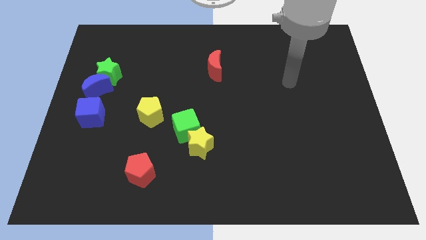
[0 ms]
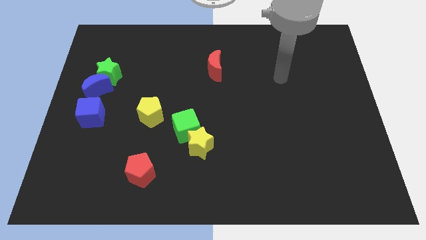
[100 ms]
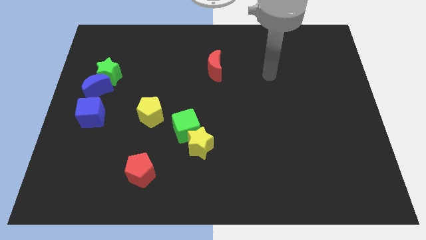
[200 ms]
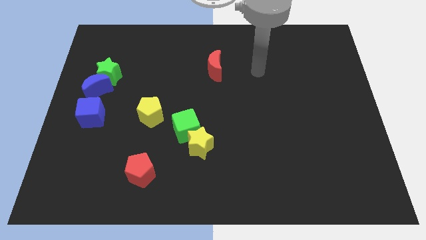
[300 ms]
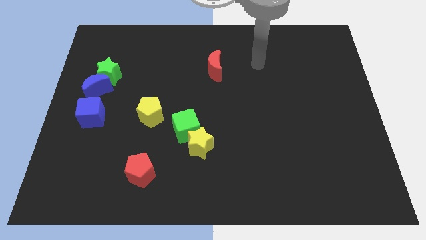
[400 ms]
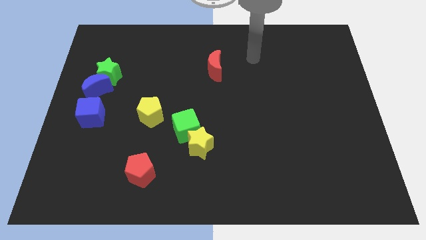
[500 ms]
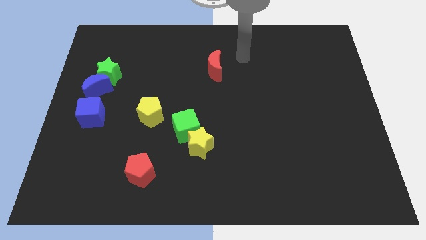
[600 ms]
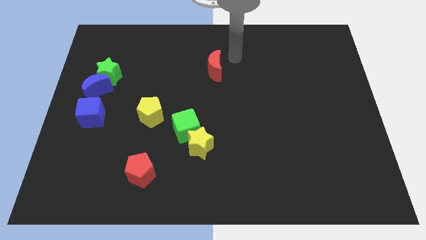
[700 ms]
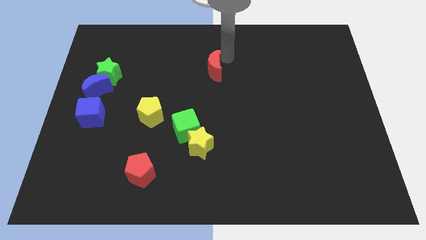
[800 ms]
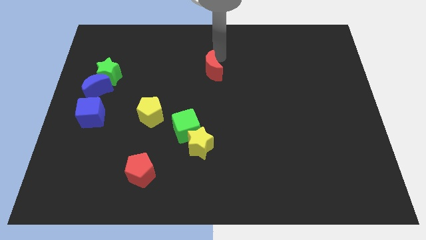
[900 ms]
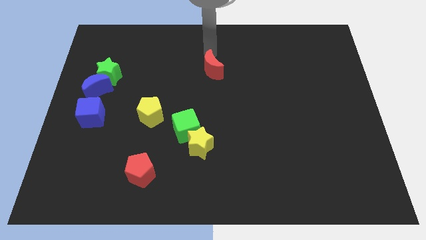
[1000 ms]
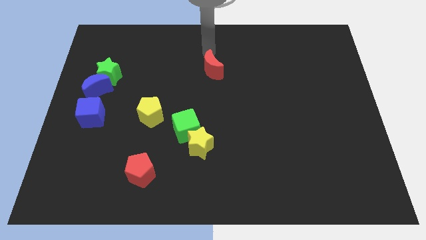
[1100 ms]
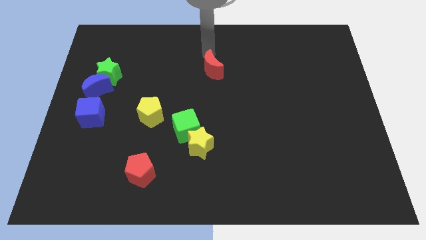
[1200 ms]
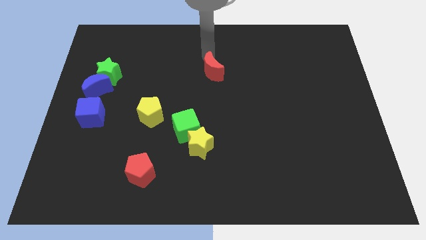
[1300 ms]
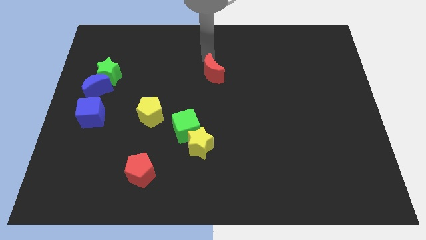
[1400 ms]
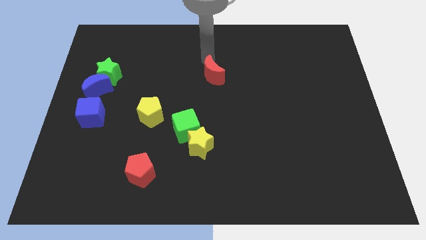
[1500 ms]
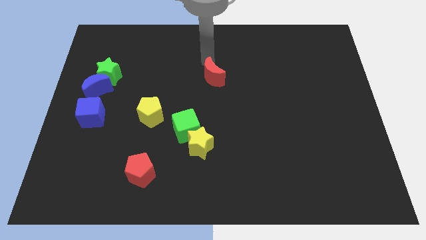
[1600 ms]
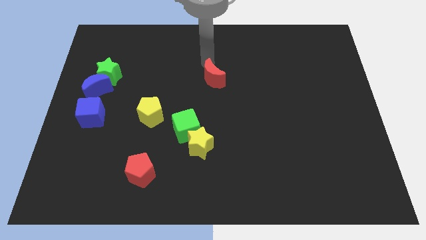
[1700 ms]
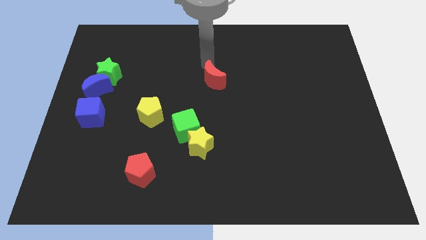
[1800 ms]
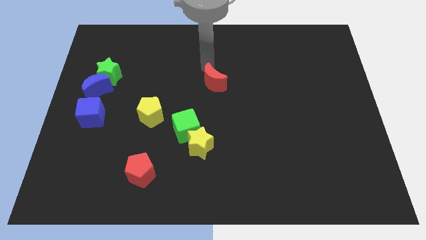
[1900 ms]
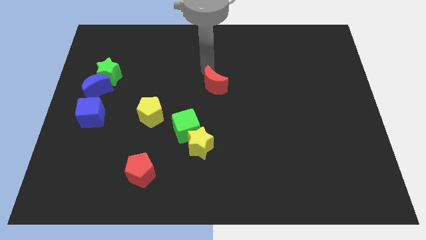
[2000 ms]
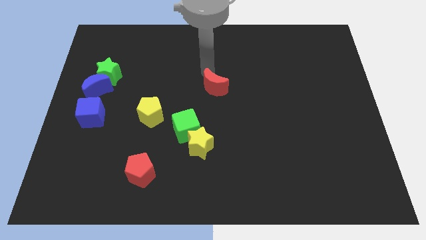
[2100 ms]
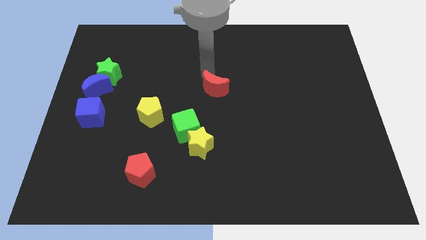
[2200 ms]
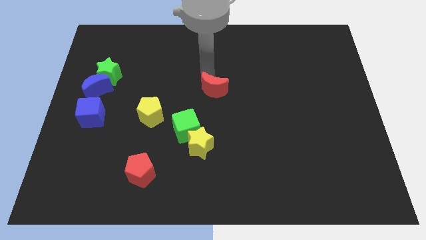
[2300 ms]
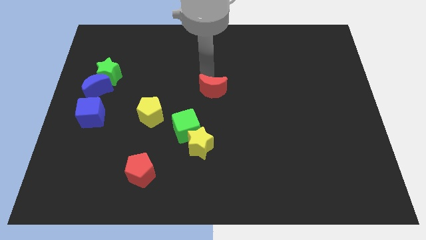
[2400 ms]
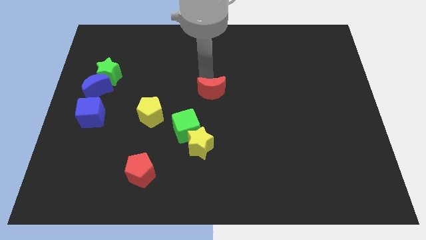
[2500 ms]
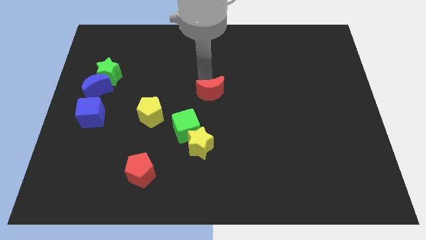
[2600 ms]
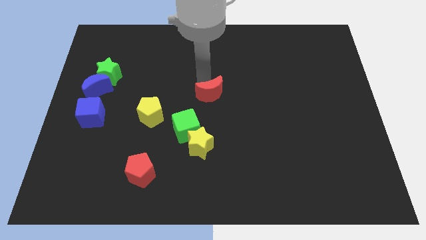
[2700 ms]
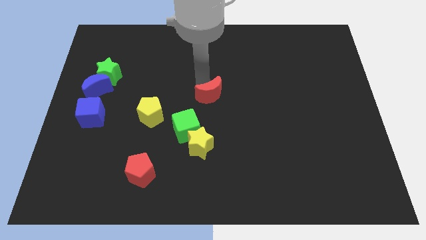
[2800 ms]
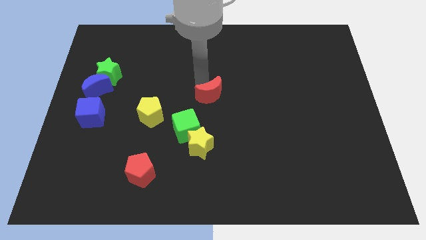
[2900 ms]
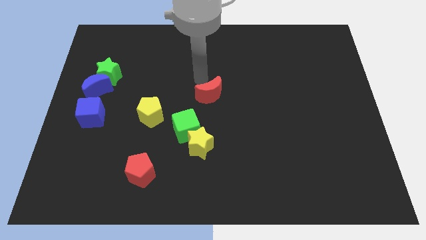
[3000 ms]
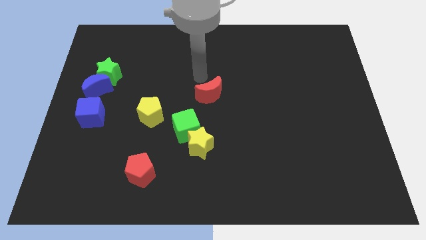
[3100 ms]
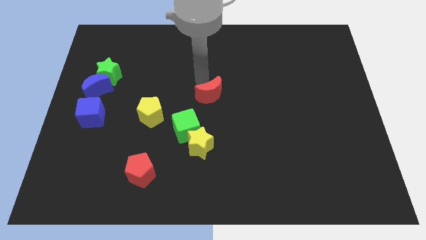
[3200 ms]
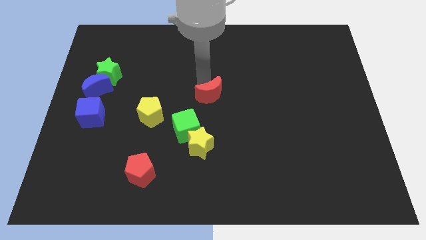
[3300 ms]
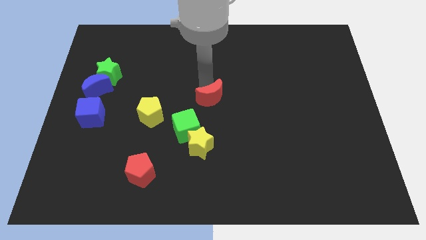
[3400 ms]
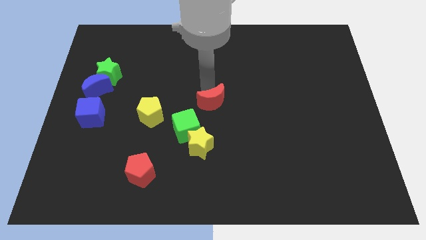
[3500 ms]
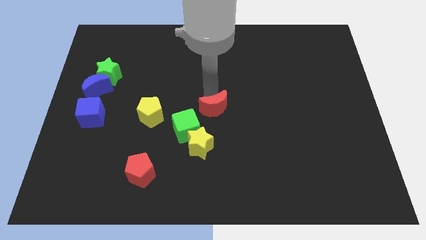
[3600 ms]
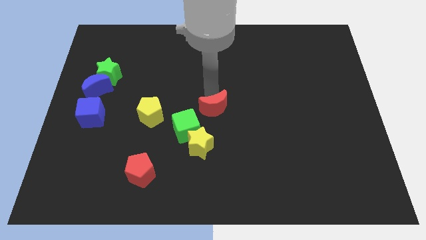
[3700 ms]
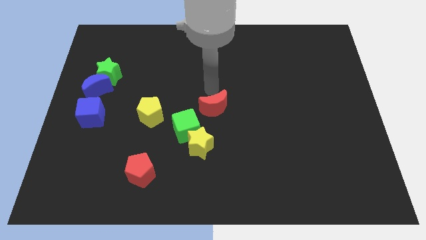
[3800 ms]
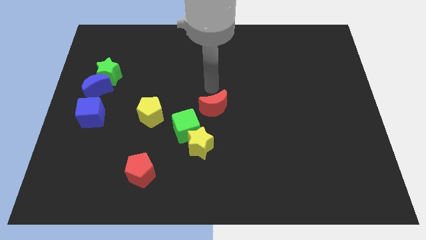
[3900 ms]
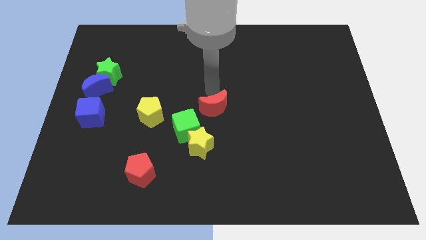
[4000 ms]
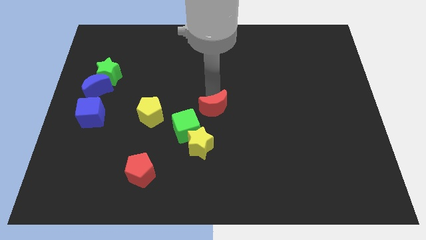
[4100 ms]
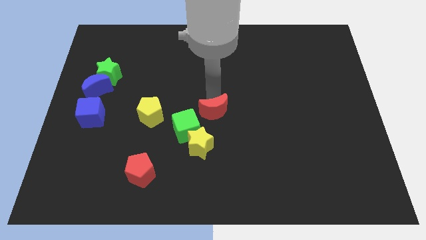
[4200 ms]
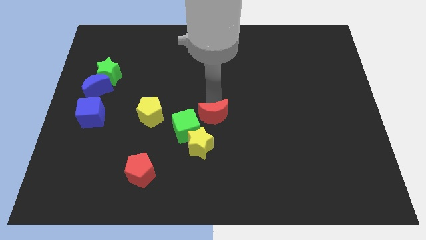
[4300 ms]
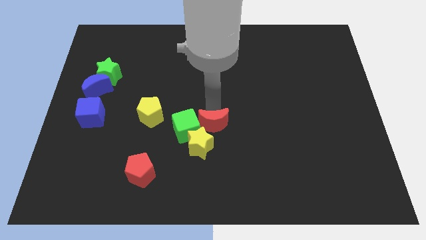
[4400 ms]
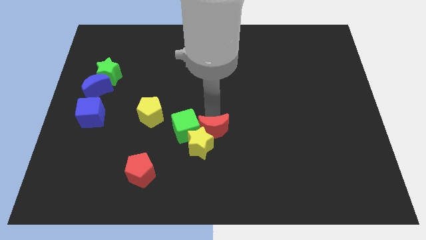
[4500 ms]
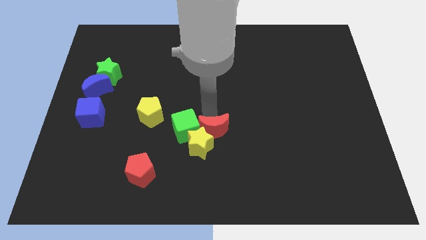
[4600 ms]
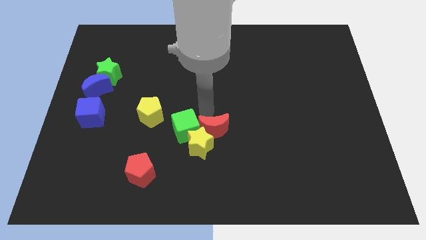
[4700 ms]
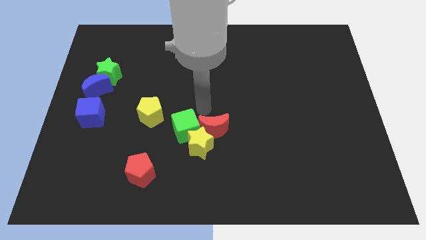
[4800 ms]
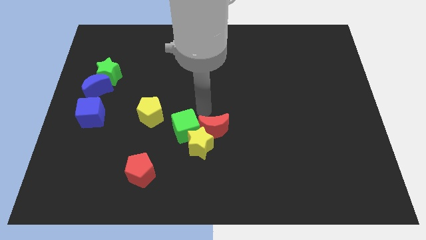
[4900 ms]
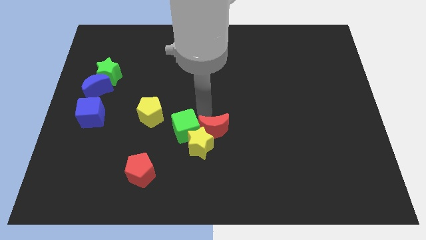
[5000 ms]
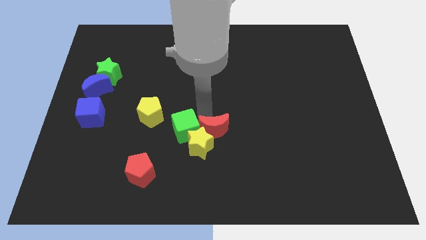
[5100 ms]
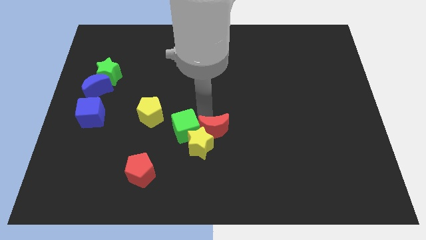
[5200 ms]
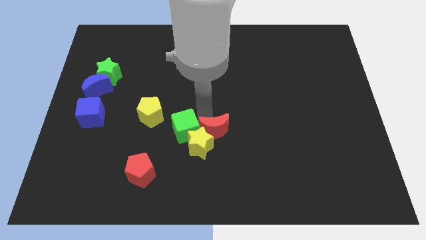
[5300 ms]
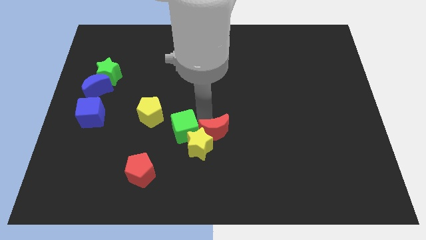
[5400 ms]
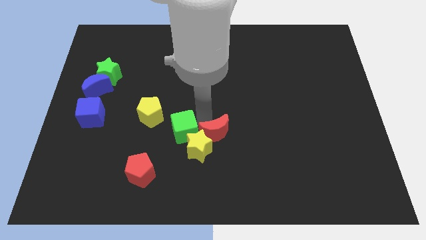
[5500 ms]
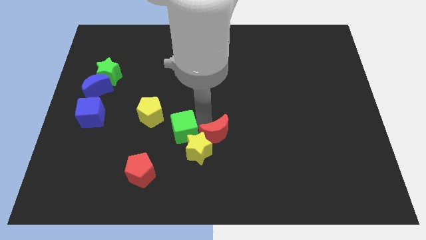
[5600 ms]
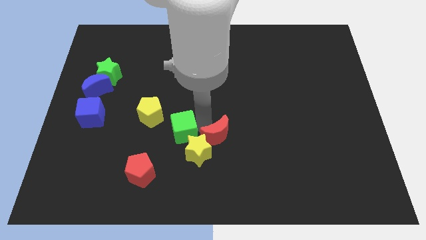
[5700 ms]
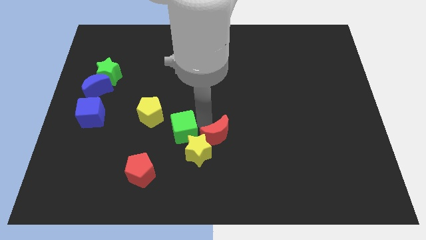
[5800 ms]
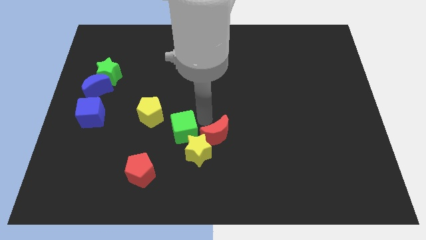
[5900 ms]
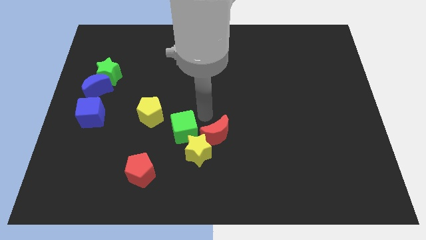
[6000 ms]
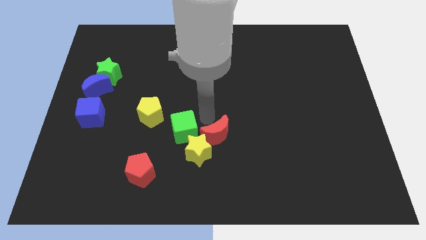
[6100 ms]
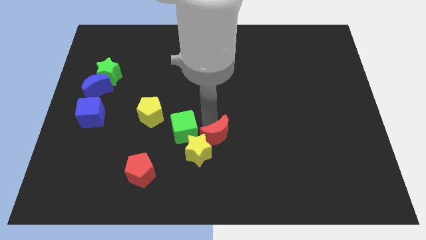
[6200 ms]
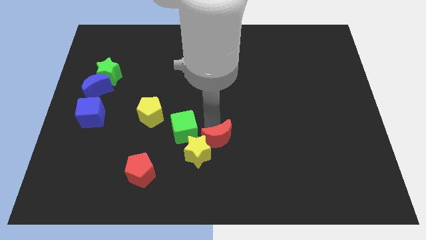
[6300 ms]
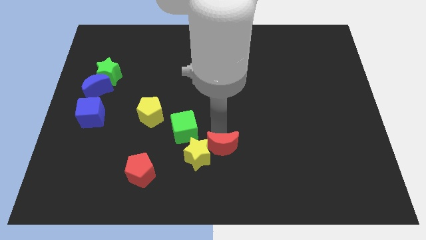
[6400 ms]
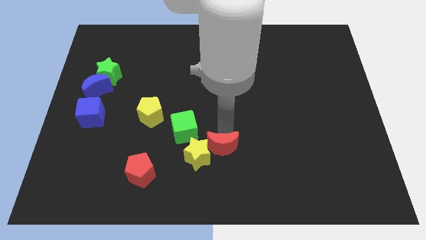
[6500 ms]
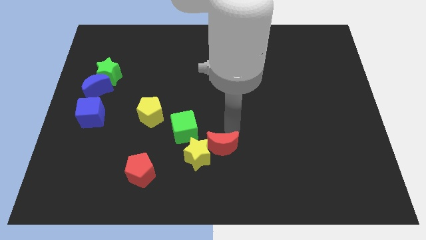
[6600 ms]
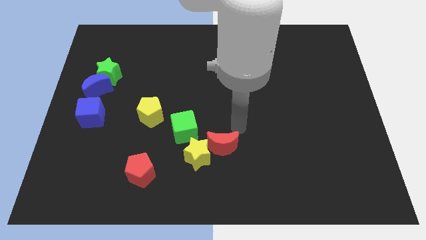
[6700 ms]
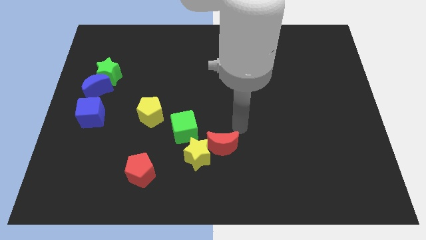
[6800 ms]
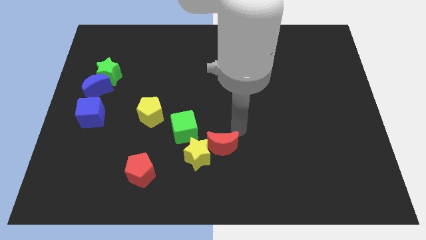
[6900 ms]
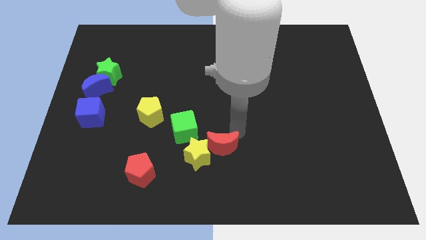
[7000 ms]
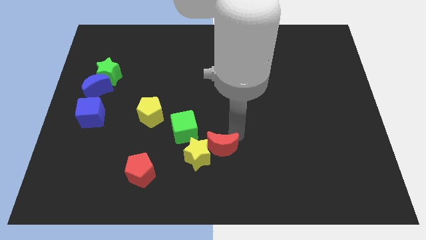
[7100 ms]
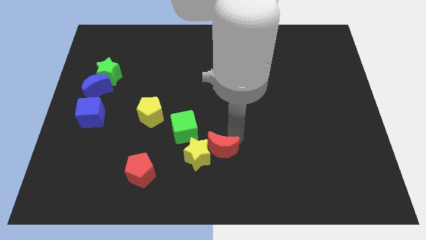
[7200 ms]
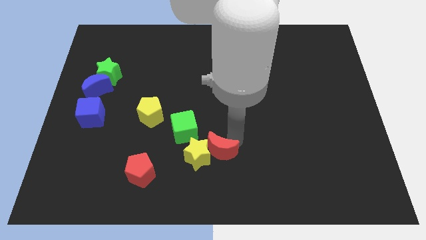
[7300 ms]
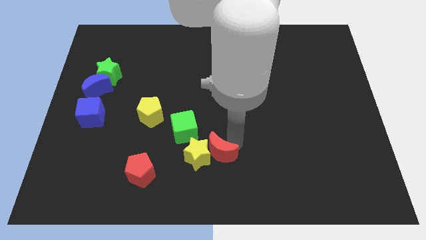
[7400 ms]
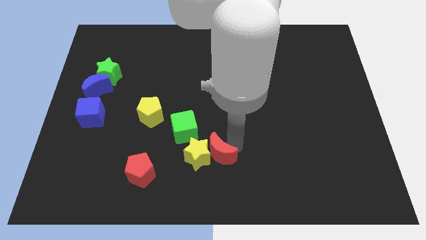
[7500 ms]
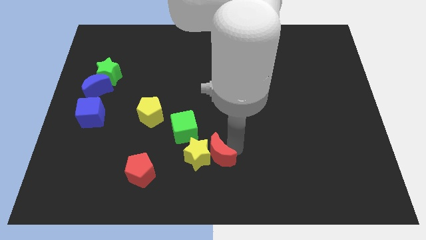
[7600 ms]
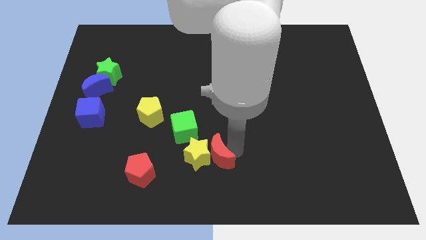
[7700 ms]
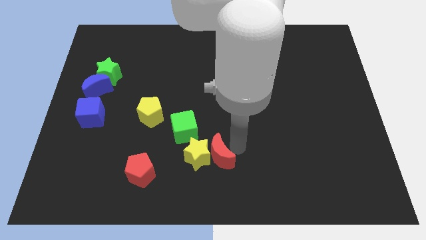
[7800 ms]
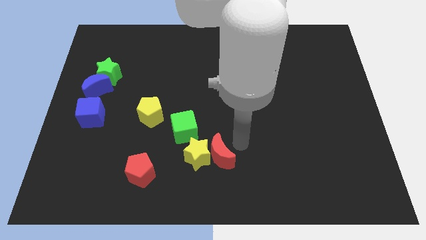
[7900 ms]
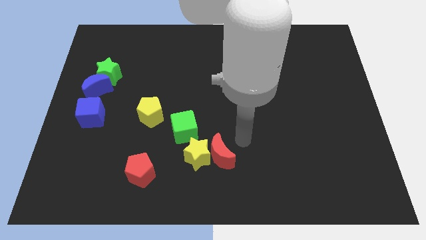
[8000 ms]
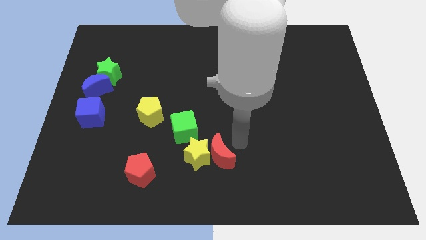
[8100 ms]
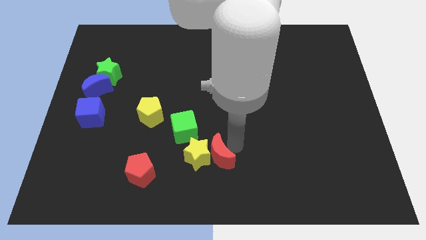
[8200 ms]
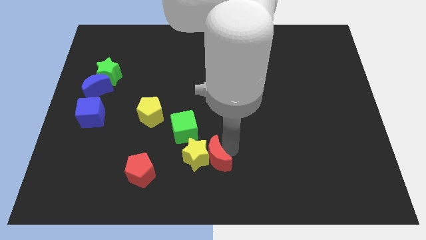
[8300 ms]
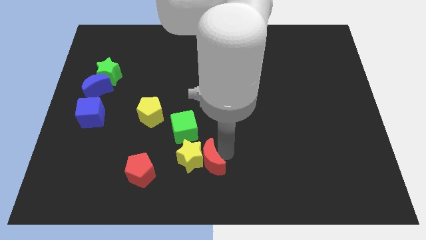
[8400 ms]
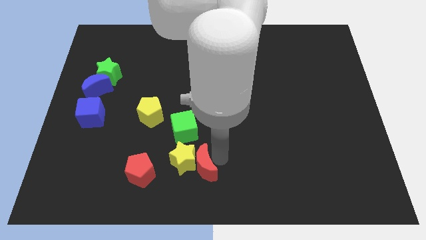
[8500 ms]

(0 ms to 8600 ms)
move the red moon to the bottom of the green cube
